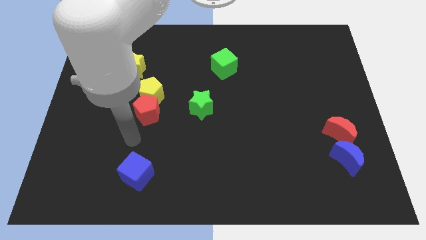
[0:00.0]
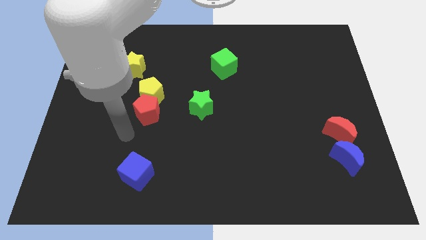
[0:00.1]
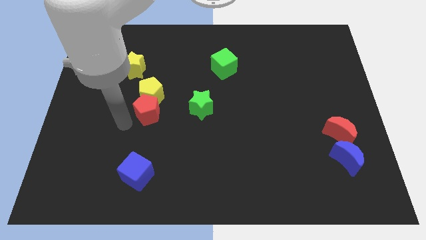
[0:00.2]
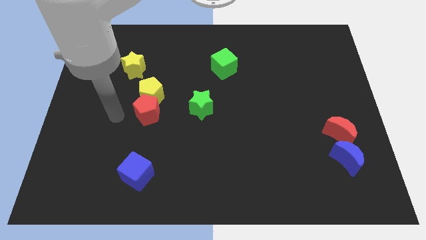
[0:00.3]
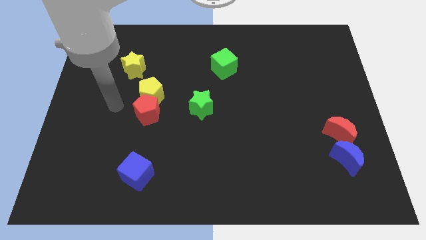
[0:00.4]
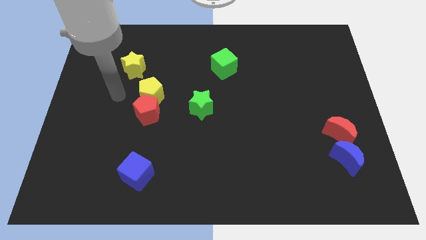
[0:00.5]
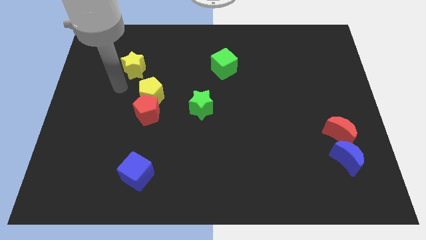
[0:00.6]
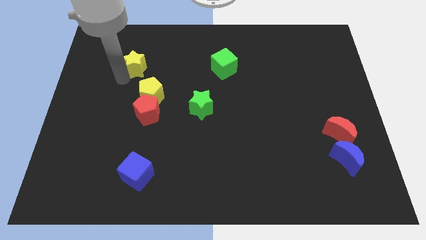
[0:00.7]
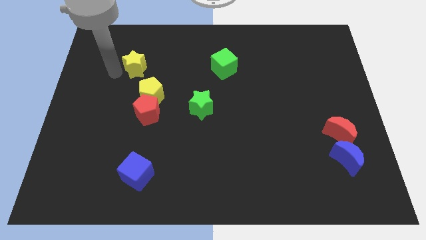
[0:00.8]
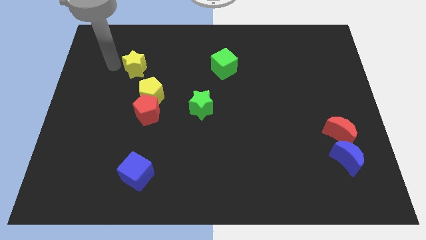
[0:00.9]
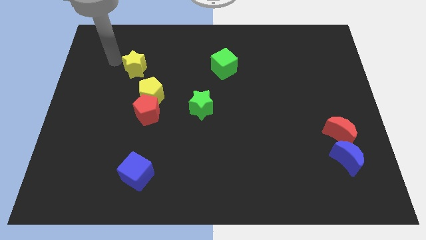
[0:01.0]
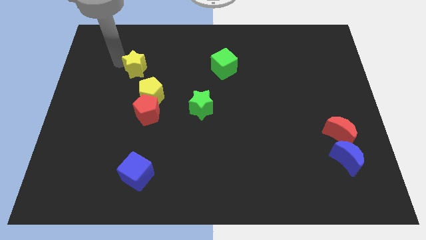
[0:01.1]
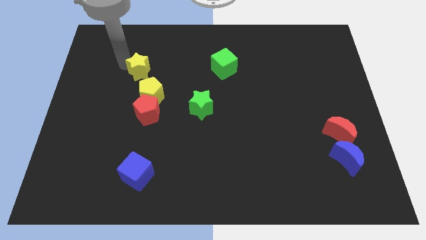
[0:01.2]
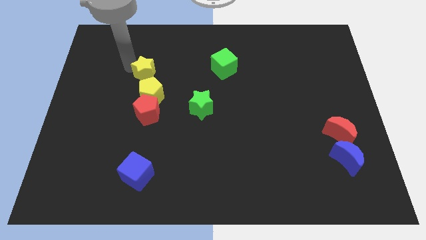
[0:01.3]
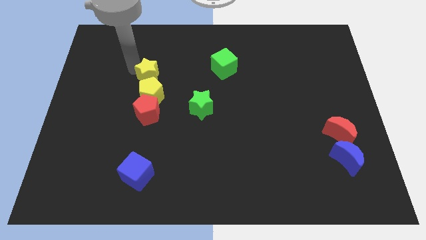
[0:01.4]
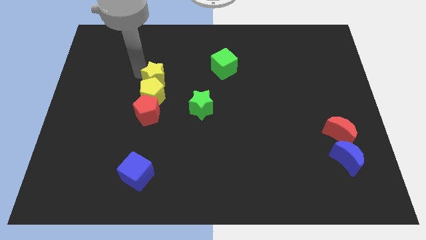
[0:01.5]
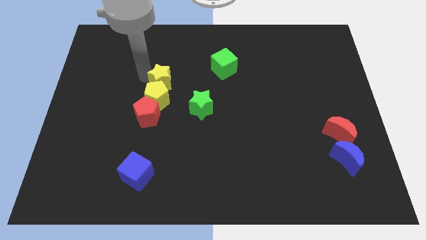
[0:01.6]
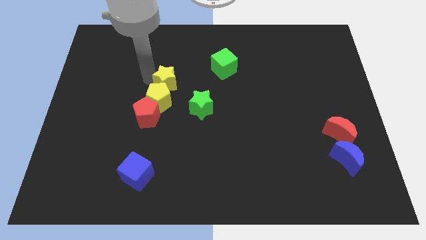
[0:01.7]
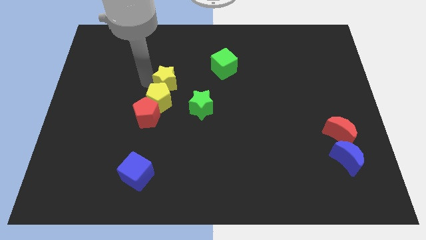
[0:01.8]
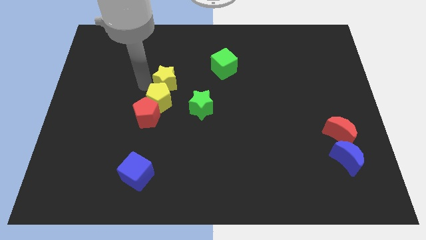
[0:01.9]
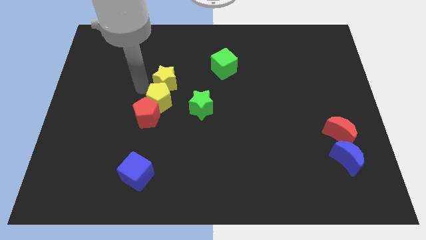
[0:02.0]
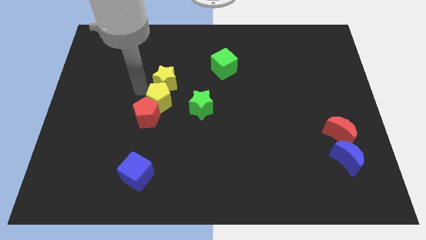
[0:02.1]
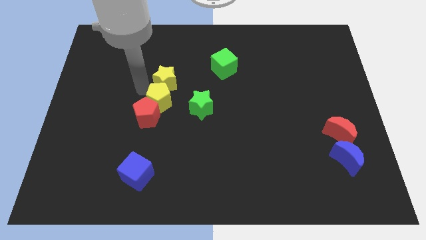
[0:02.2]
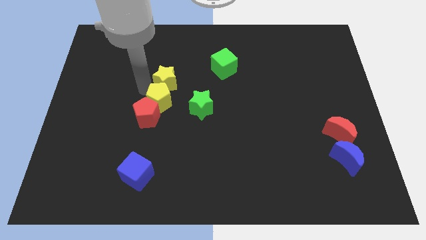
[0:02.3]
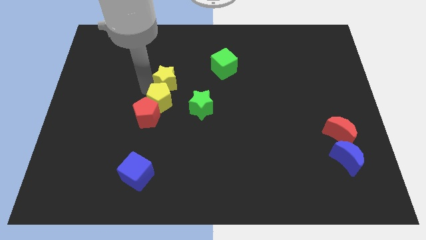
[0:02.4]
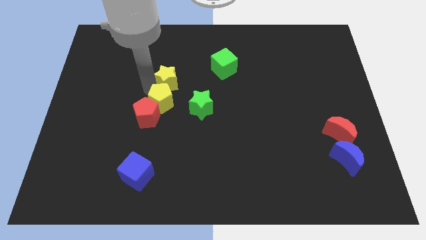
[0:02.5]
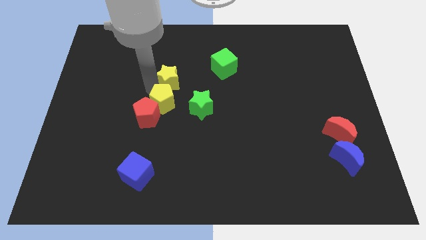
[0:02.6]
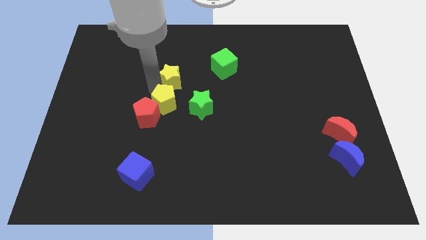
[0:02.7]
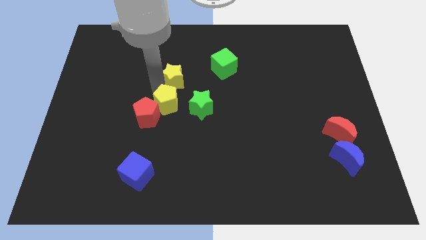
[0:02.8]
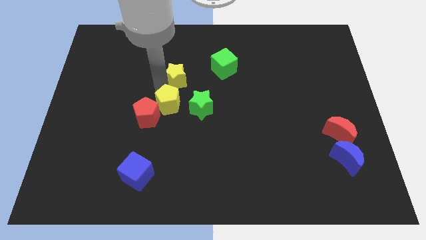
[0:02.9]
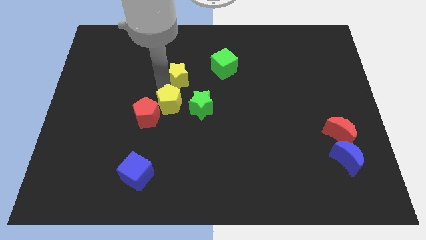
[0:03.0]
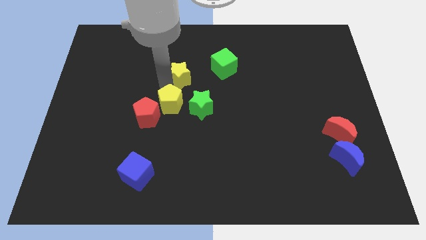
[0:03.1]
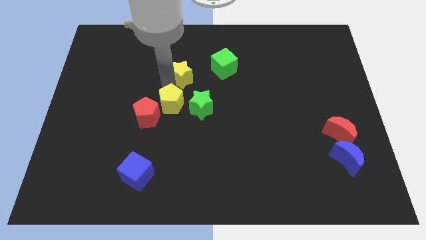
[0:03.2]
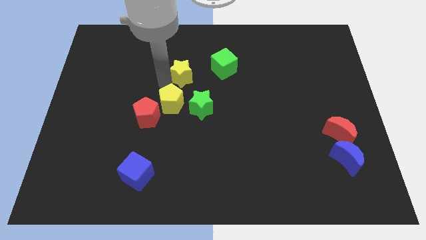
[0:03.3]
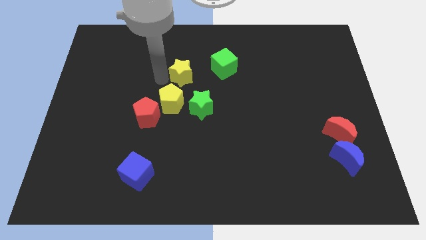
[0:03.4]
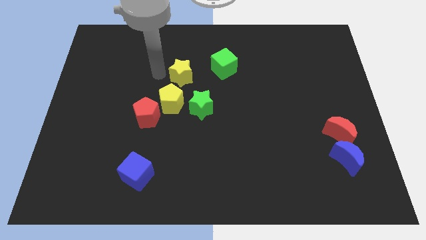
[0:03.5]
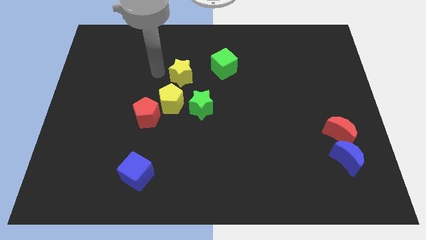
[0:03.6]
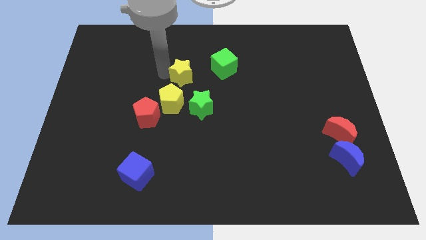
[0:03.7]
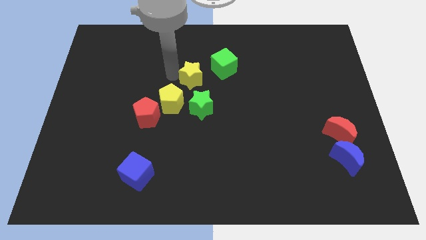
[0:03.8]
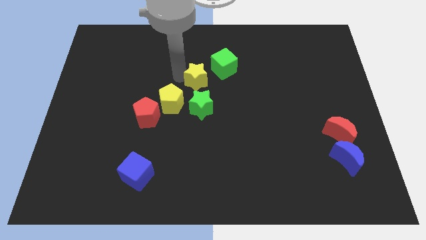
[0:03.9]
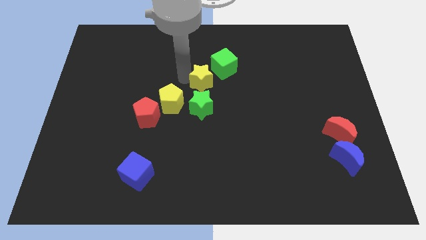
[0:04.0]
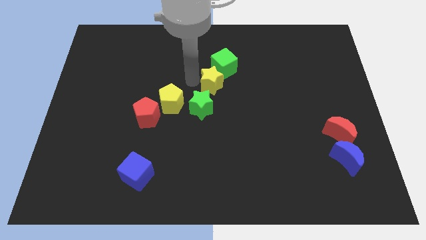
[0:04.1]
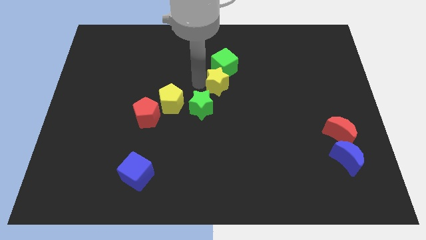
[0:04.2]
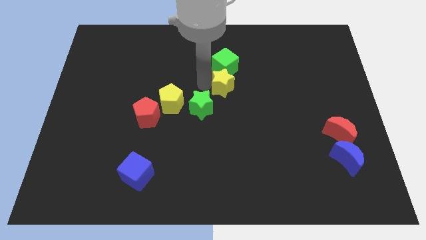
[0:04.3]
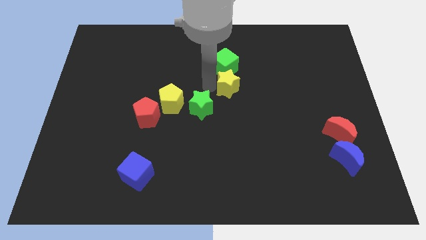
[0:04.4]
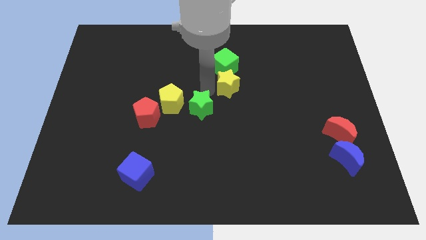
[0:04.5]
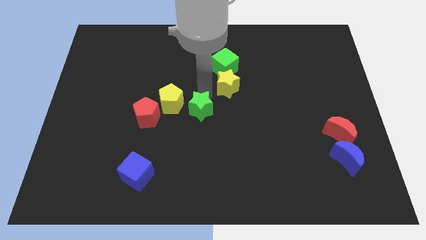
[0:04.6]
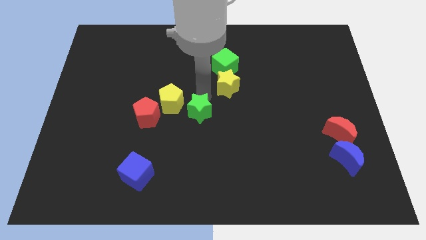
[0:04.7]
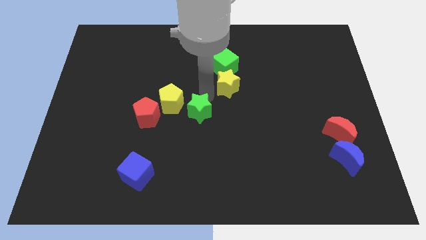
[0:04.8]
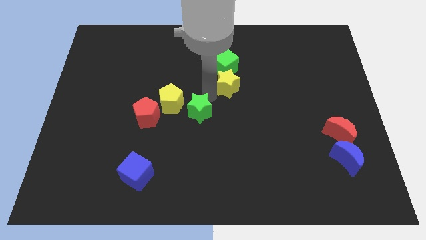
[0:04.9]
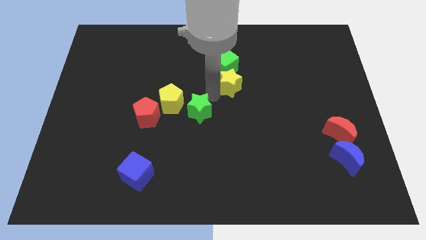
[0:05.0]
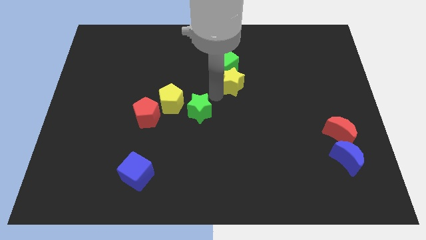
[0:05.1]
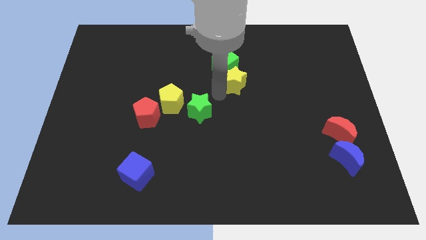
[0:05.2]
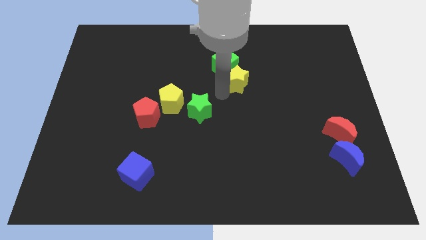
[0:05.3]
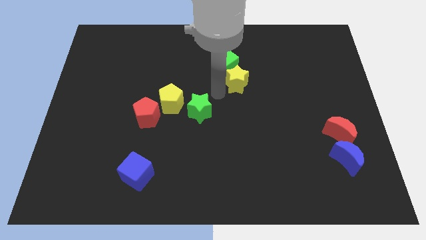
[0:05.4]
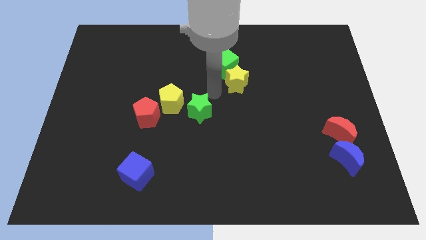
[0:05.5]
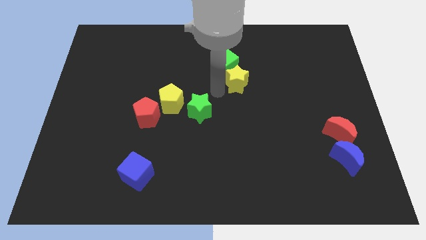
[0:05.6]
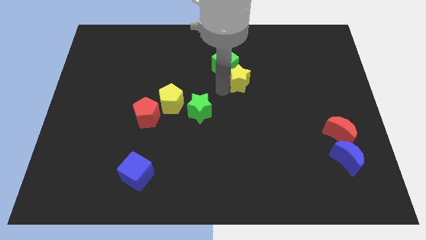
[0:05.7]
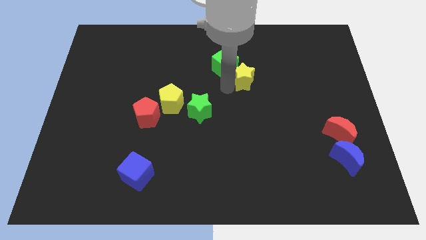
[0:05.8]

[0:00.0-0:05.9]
move the yellow star to the right side of the green cube

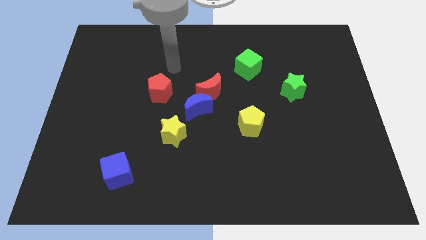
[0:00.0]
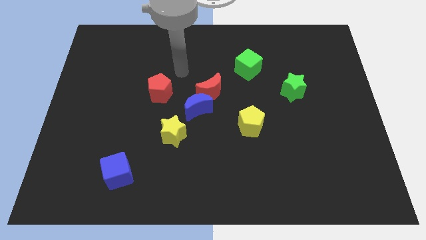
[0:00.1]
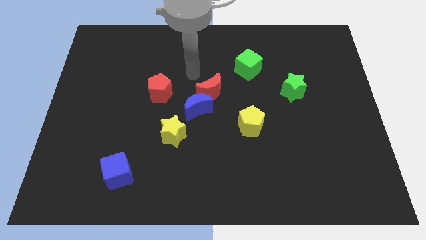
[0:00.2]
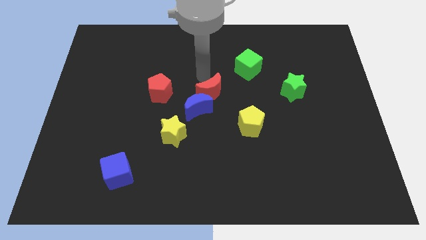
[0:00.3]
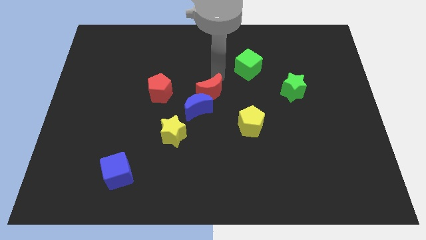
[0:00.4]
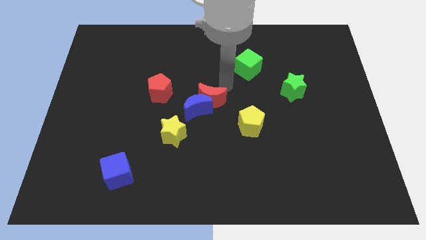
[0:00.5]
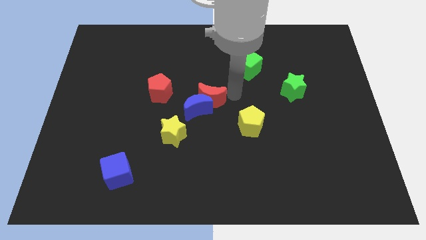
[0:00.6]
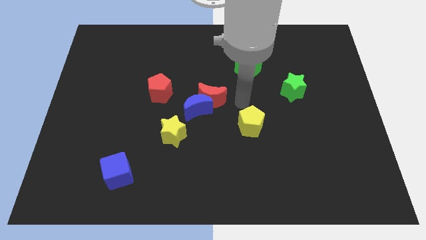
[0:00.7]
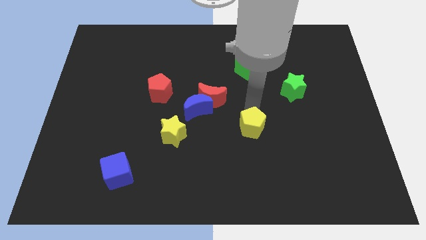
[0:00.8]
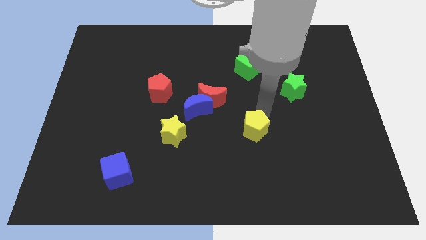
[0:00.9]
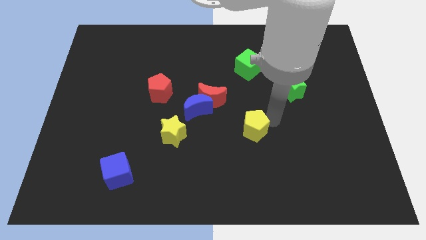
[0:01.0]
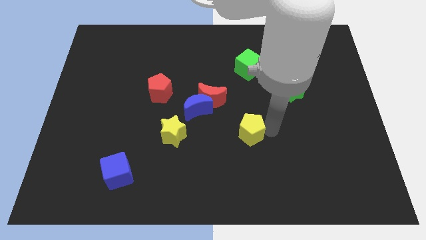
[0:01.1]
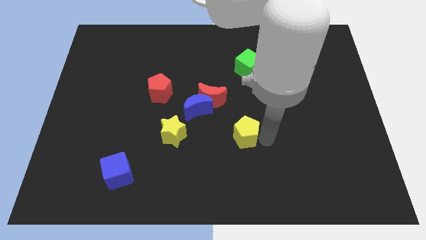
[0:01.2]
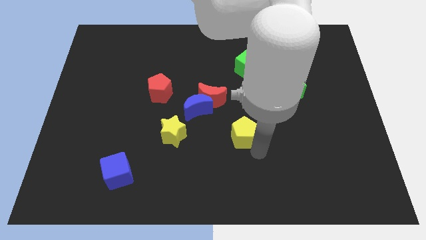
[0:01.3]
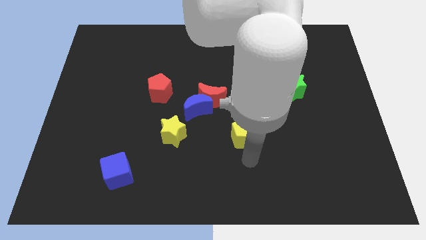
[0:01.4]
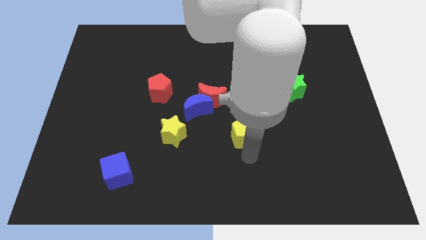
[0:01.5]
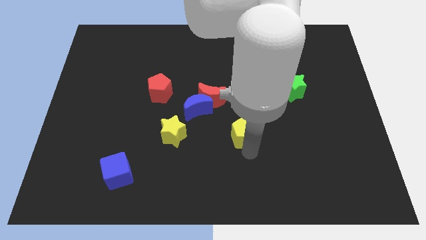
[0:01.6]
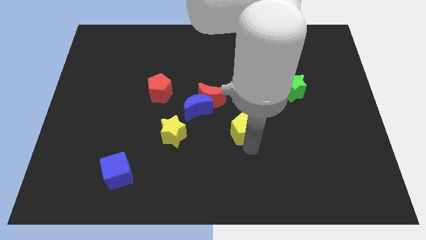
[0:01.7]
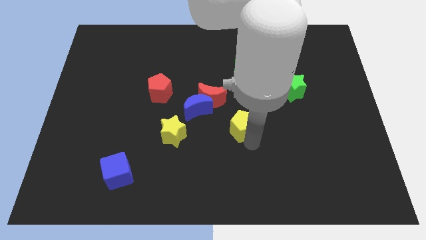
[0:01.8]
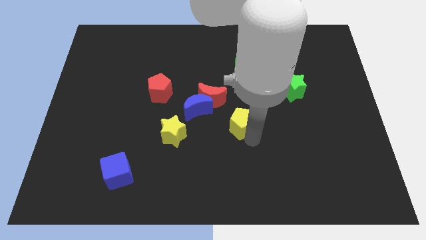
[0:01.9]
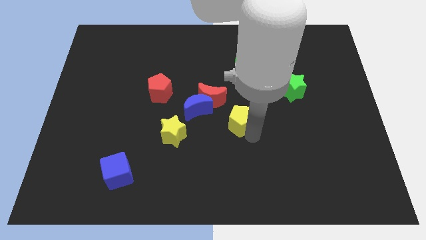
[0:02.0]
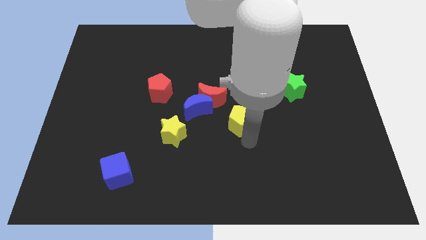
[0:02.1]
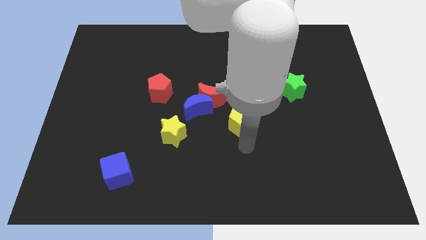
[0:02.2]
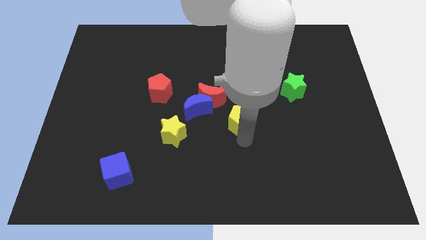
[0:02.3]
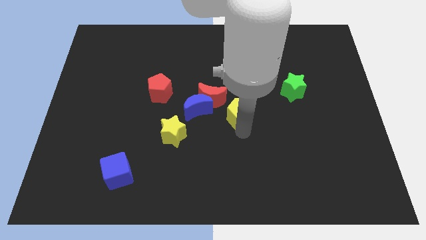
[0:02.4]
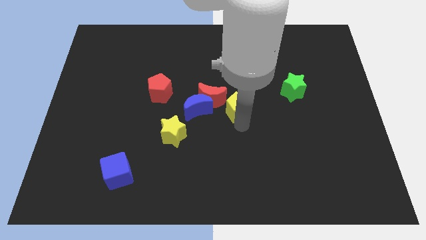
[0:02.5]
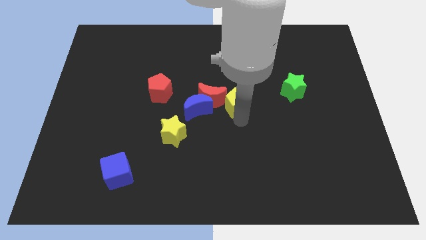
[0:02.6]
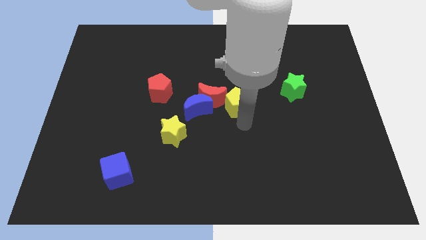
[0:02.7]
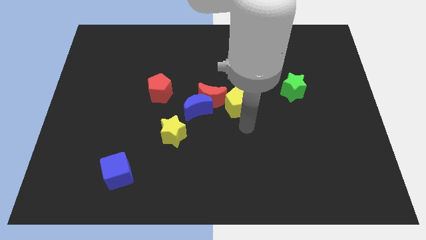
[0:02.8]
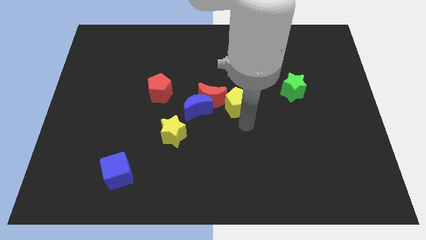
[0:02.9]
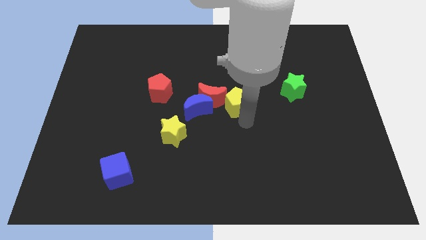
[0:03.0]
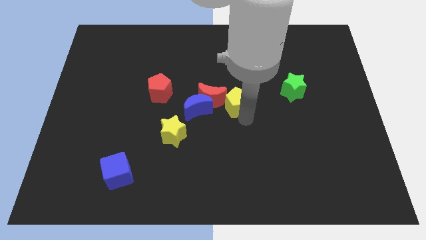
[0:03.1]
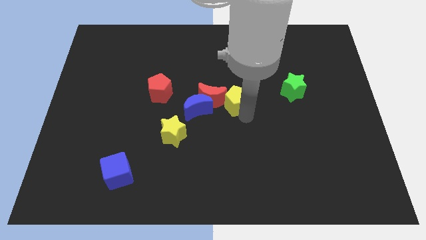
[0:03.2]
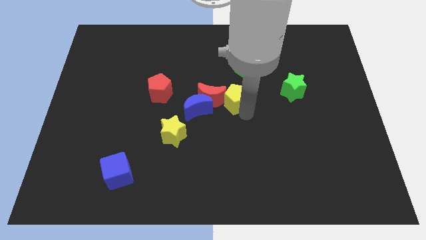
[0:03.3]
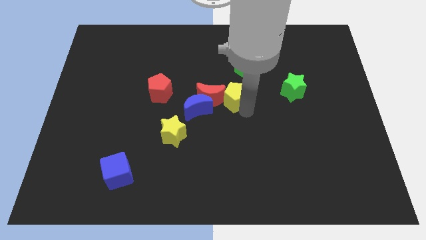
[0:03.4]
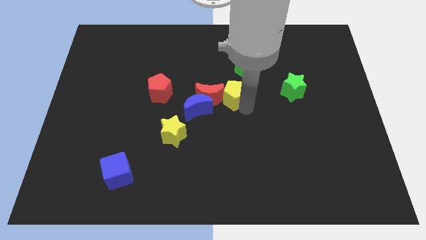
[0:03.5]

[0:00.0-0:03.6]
put the yellow pentagon diagonally down and to the left of the green cube
